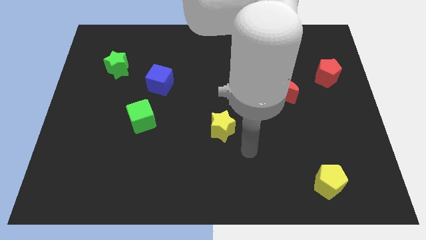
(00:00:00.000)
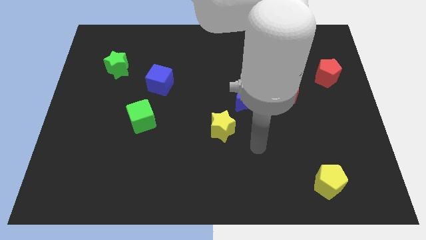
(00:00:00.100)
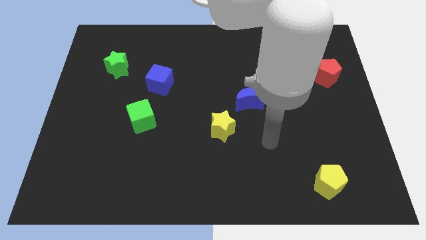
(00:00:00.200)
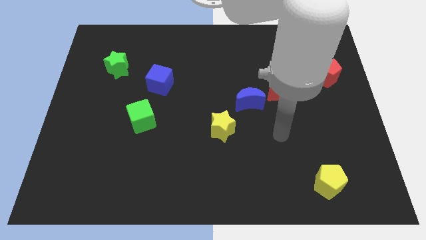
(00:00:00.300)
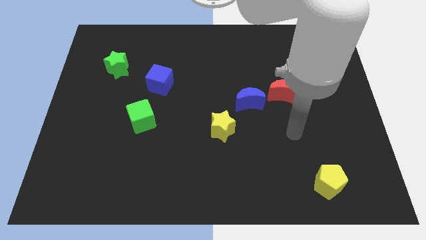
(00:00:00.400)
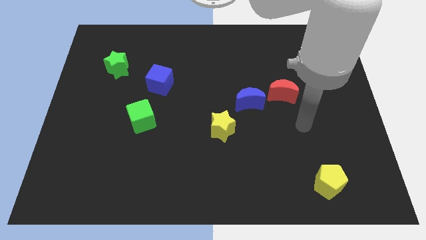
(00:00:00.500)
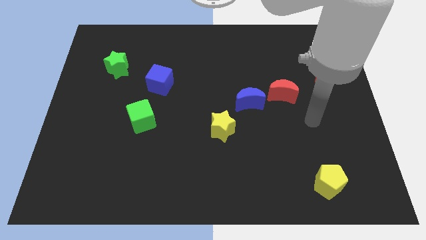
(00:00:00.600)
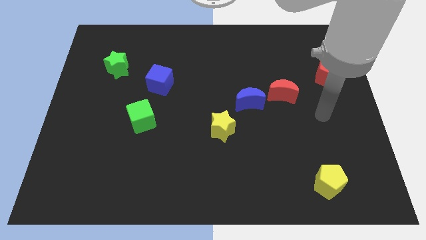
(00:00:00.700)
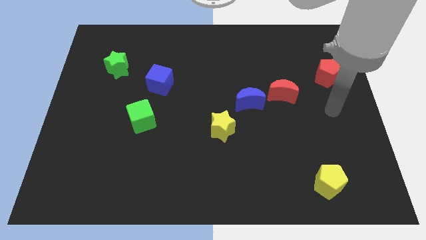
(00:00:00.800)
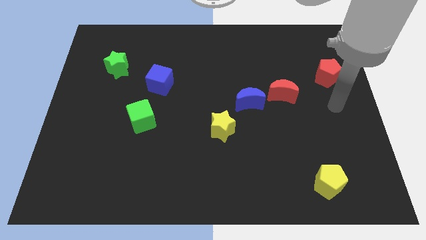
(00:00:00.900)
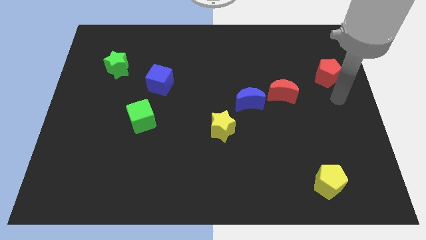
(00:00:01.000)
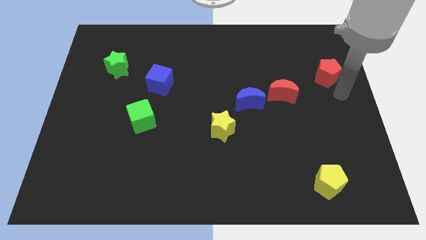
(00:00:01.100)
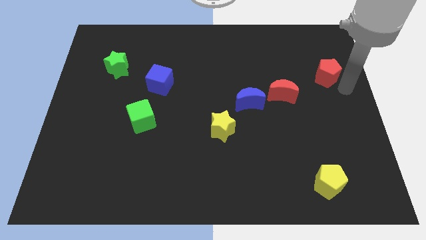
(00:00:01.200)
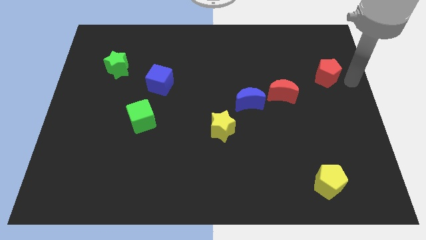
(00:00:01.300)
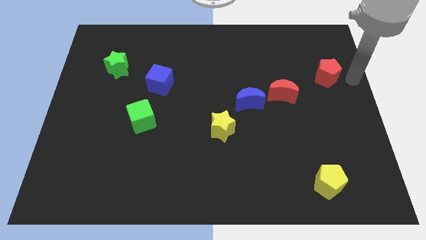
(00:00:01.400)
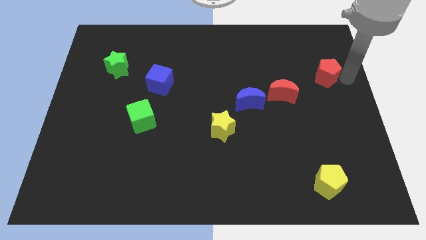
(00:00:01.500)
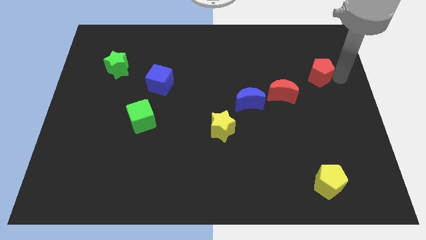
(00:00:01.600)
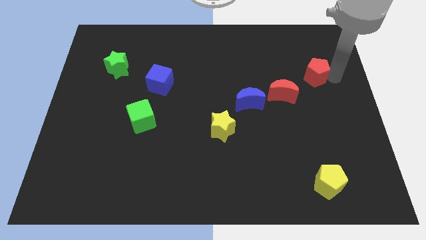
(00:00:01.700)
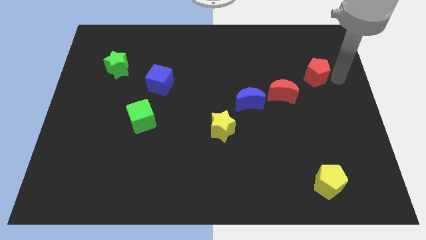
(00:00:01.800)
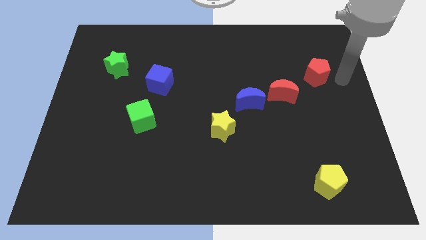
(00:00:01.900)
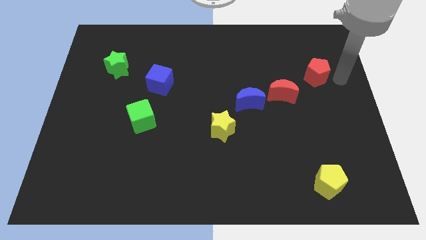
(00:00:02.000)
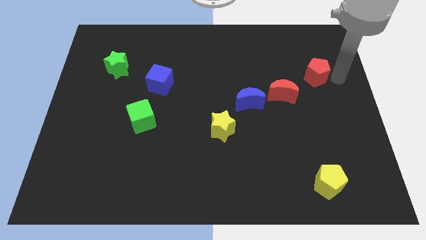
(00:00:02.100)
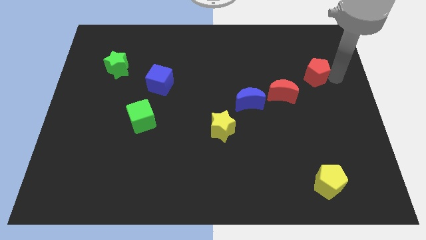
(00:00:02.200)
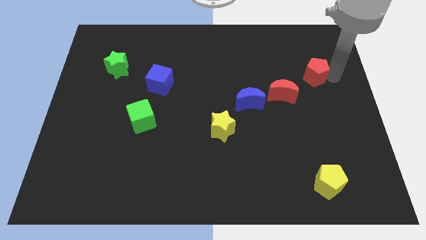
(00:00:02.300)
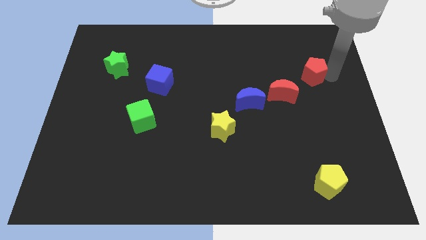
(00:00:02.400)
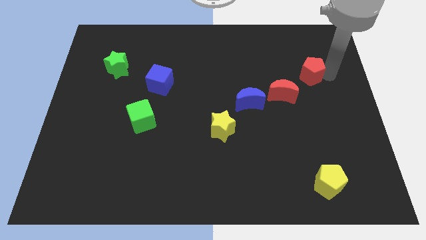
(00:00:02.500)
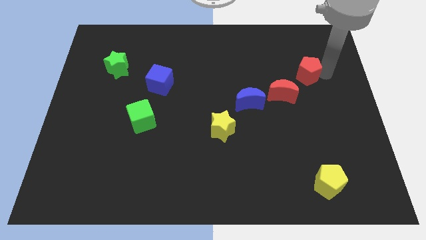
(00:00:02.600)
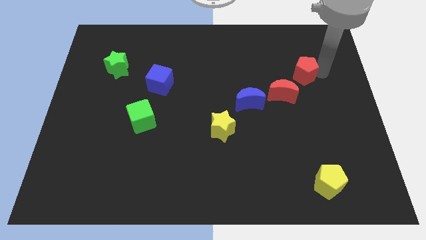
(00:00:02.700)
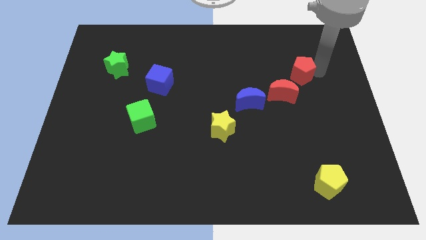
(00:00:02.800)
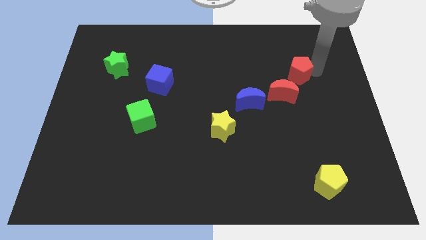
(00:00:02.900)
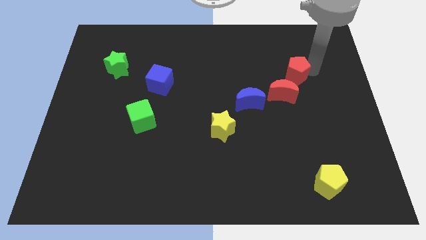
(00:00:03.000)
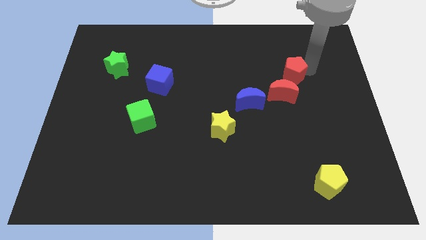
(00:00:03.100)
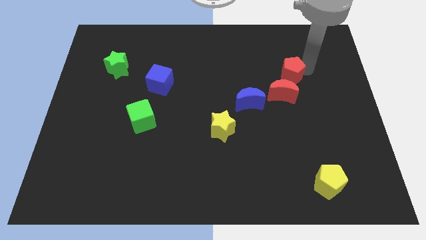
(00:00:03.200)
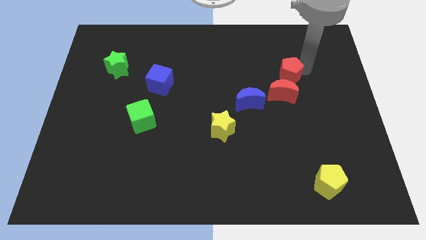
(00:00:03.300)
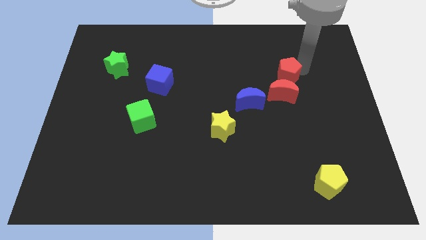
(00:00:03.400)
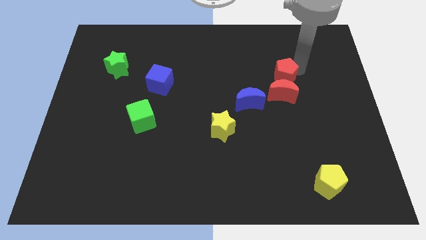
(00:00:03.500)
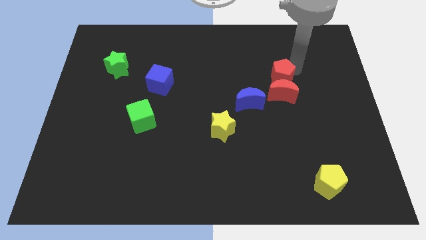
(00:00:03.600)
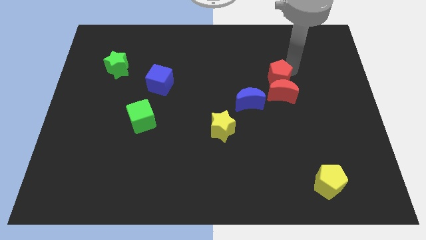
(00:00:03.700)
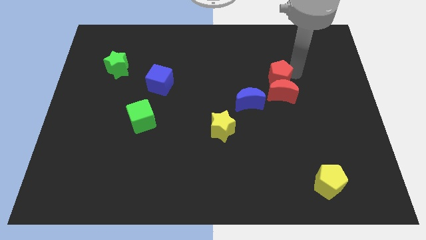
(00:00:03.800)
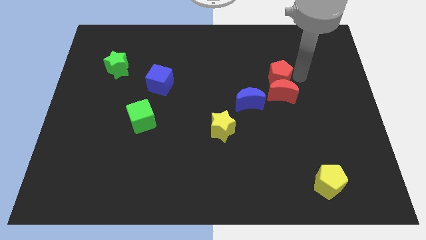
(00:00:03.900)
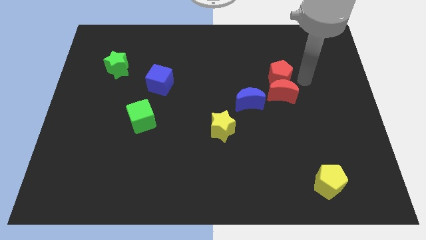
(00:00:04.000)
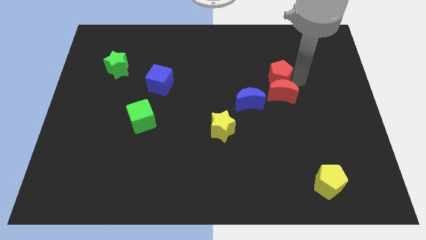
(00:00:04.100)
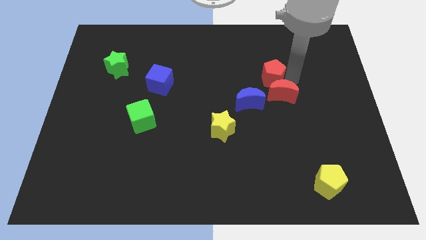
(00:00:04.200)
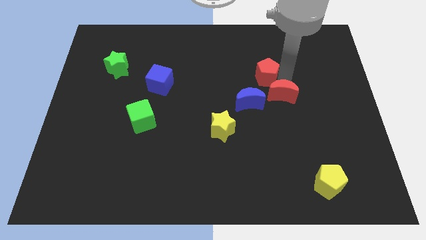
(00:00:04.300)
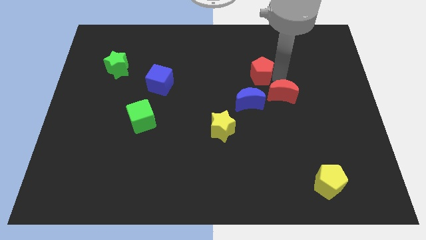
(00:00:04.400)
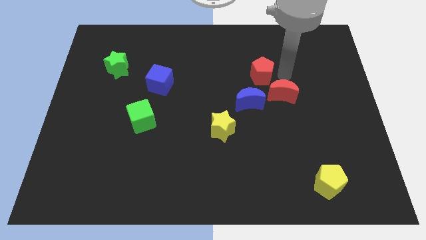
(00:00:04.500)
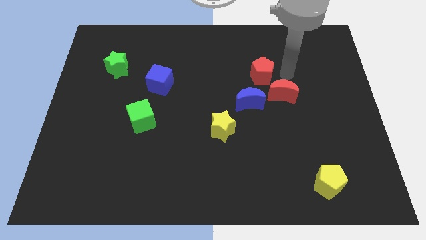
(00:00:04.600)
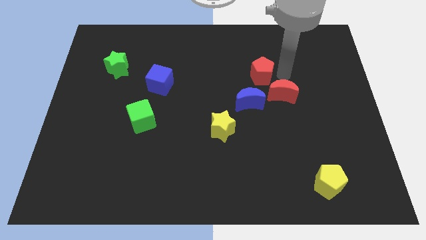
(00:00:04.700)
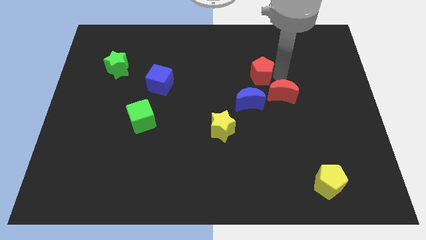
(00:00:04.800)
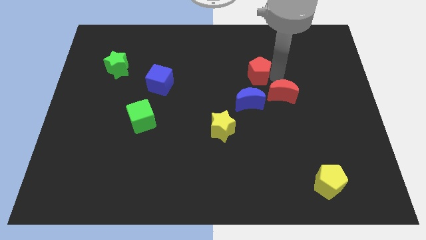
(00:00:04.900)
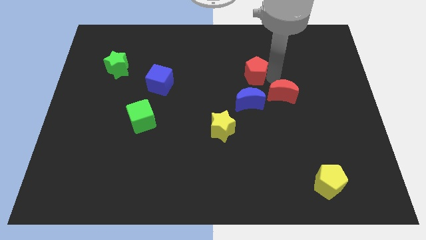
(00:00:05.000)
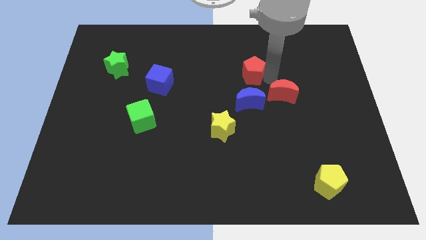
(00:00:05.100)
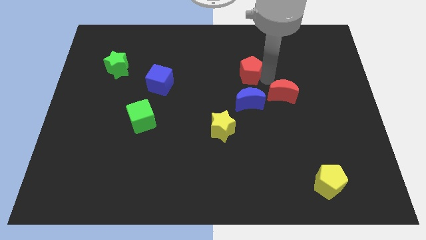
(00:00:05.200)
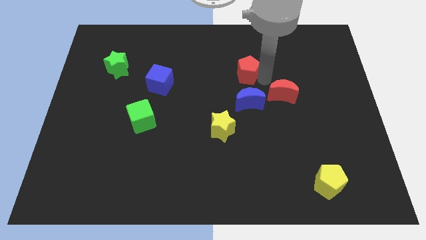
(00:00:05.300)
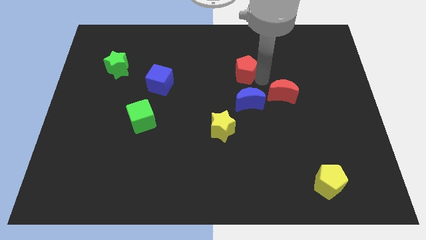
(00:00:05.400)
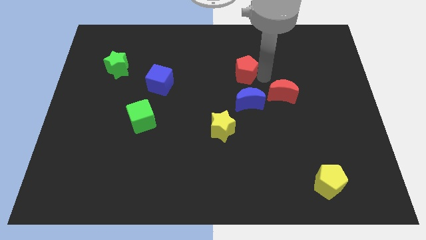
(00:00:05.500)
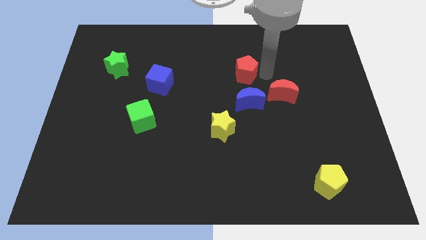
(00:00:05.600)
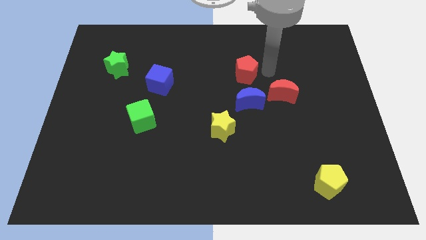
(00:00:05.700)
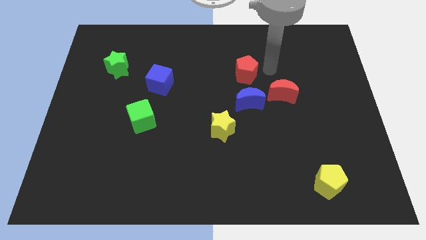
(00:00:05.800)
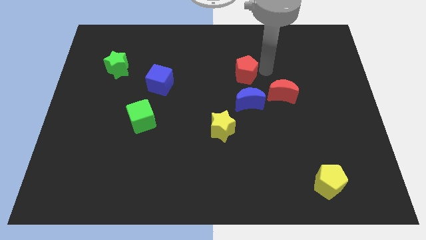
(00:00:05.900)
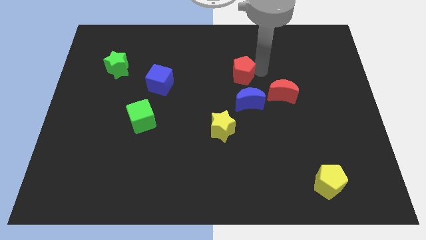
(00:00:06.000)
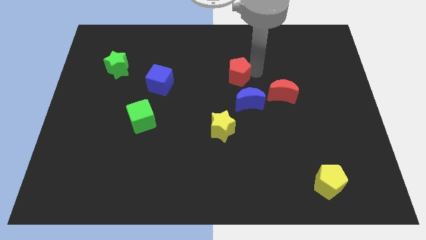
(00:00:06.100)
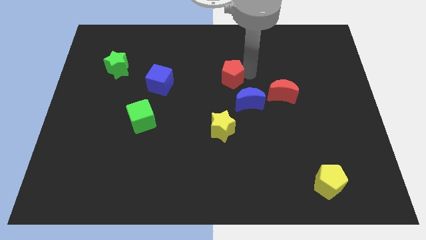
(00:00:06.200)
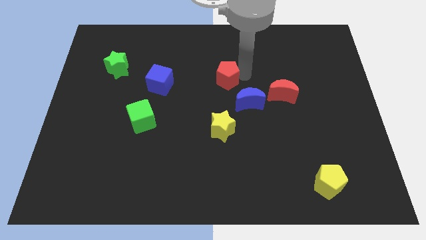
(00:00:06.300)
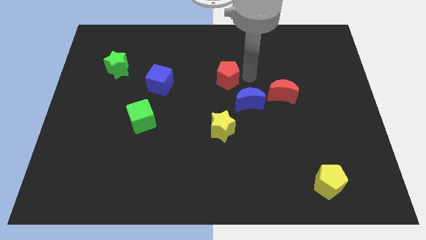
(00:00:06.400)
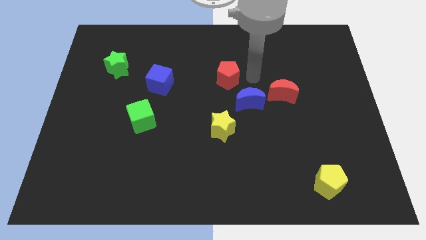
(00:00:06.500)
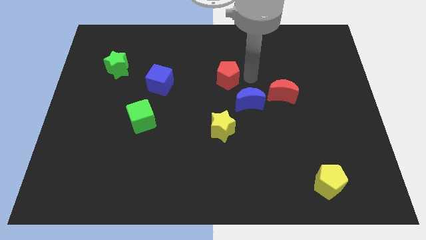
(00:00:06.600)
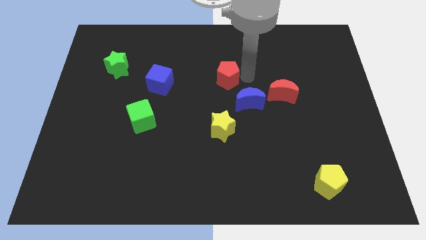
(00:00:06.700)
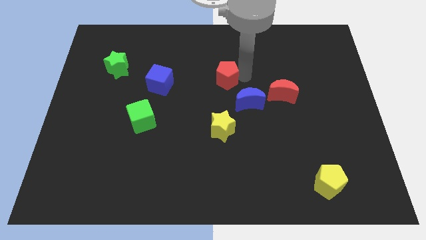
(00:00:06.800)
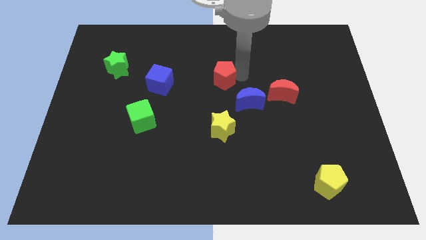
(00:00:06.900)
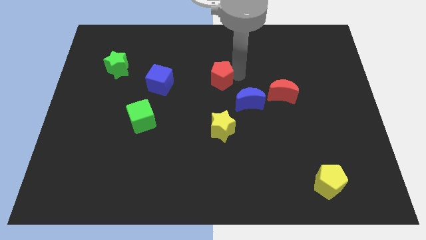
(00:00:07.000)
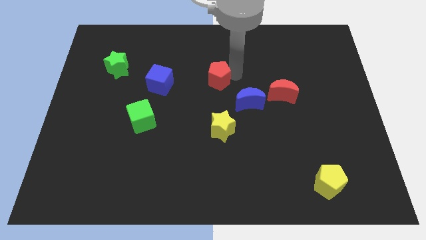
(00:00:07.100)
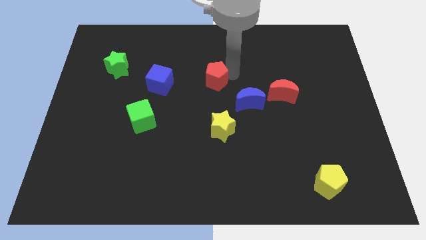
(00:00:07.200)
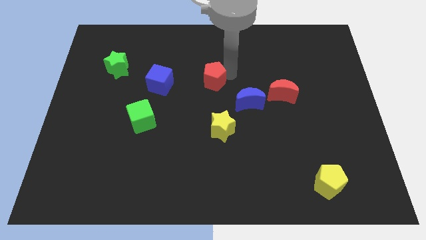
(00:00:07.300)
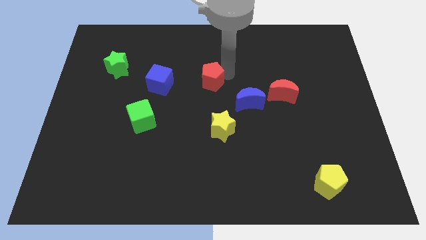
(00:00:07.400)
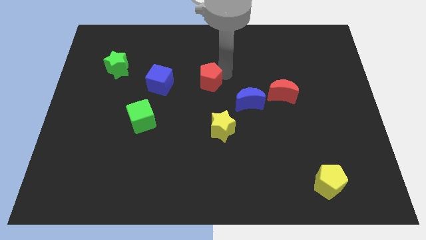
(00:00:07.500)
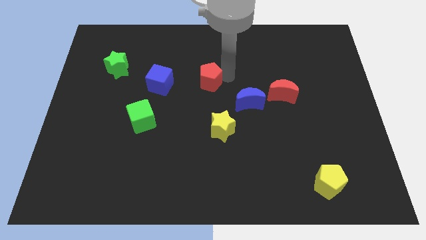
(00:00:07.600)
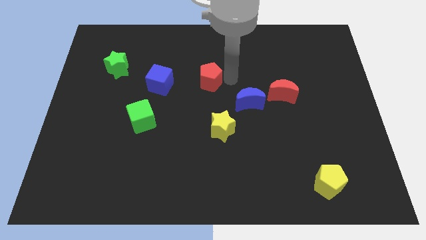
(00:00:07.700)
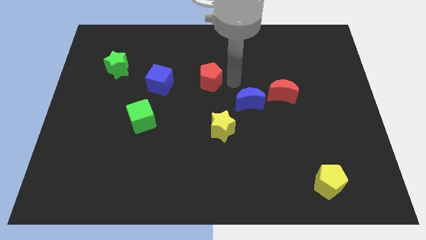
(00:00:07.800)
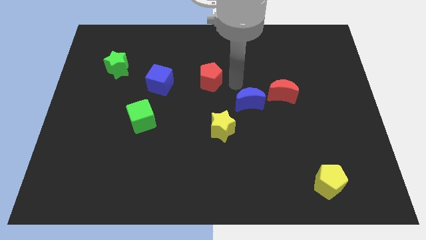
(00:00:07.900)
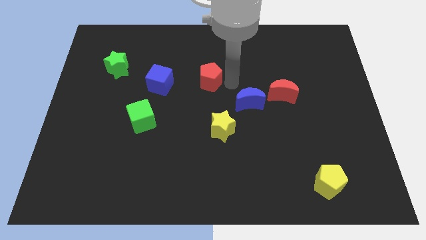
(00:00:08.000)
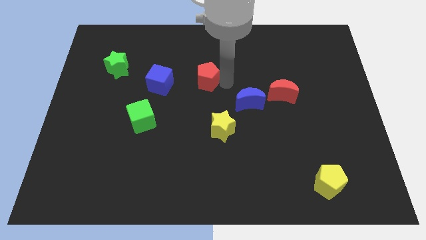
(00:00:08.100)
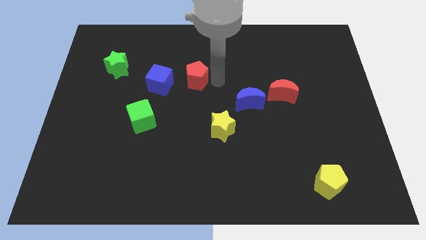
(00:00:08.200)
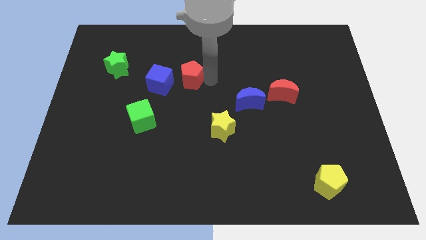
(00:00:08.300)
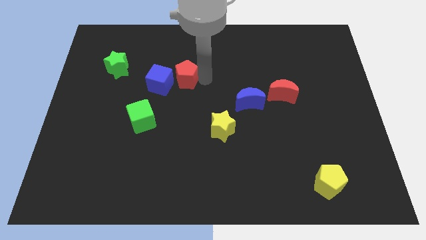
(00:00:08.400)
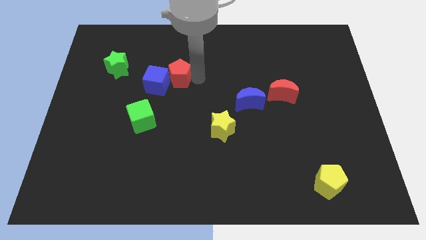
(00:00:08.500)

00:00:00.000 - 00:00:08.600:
move the red pentagon towards the blue cube
